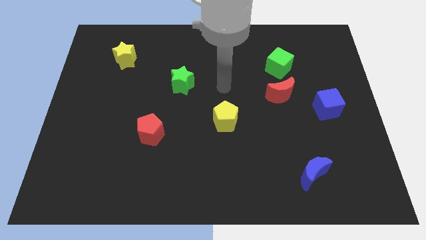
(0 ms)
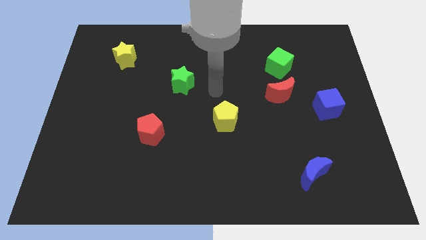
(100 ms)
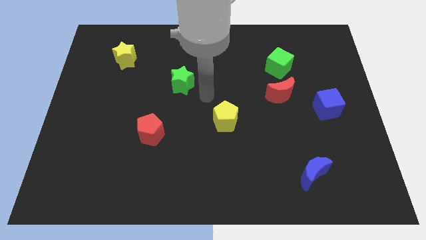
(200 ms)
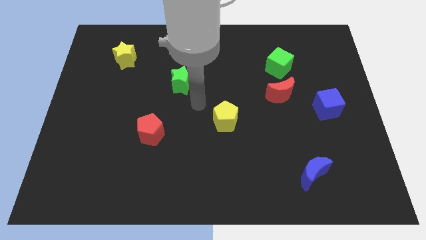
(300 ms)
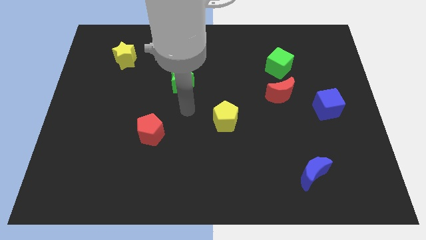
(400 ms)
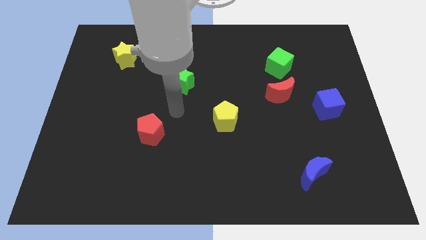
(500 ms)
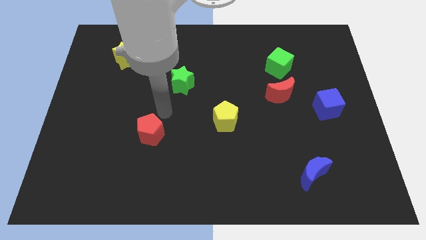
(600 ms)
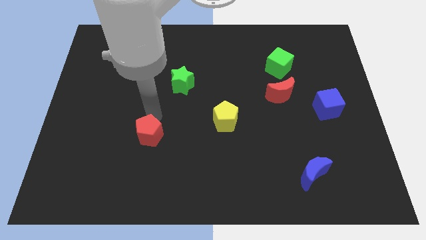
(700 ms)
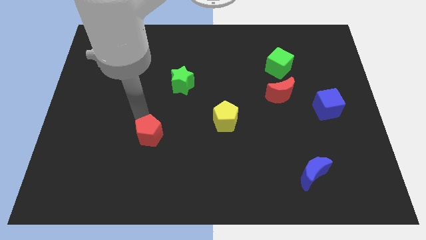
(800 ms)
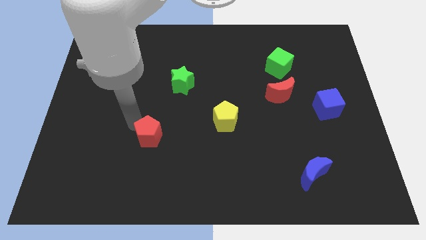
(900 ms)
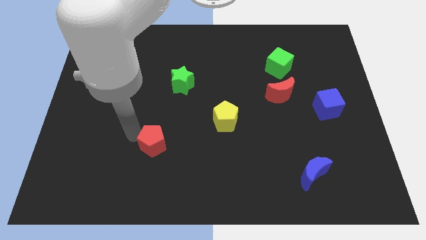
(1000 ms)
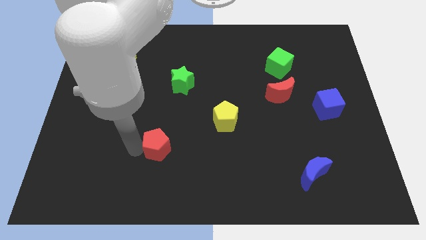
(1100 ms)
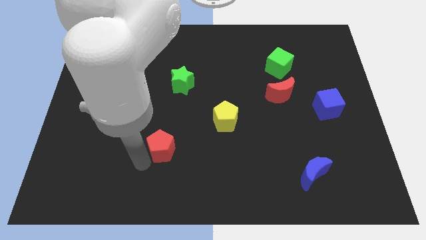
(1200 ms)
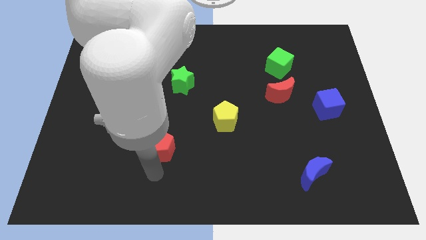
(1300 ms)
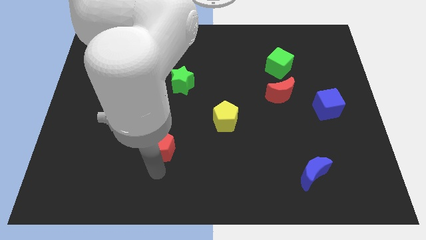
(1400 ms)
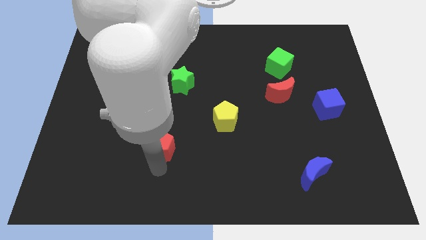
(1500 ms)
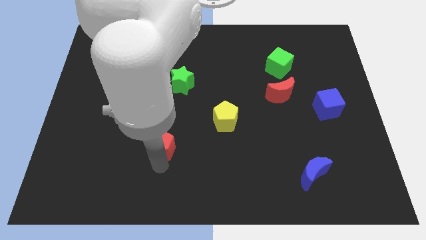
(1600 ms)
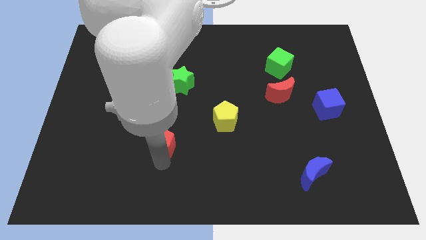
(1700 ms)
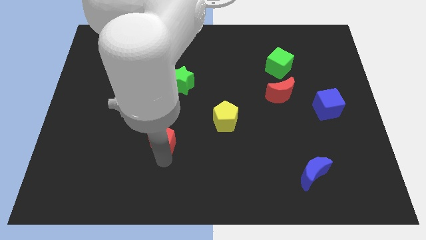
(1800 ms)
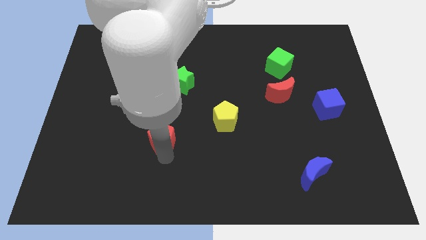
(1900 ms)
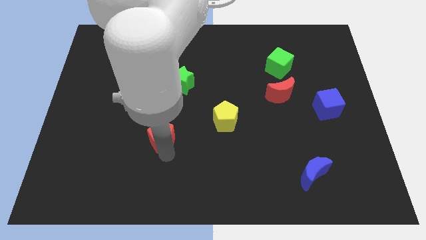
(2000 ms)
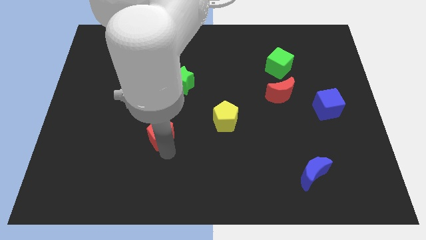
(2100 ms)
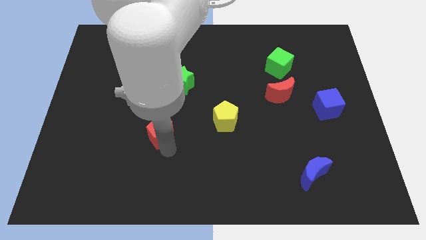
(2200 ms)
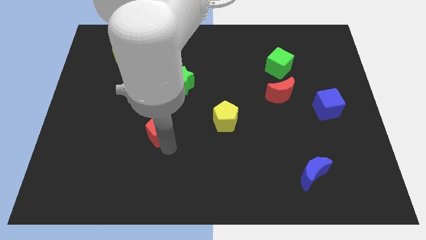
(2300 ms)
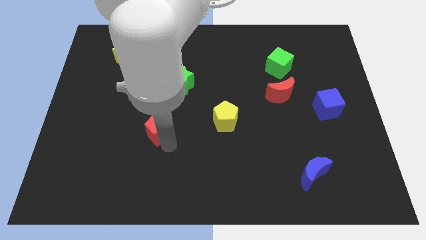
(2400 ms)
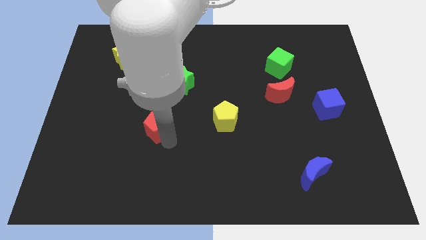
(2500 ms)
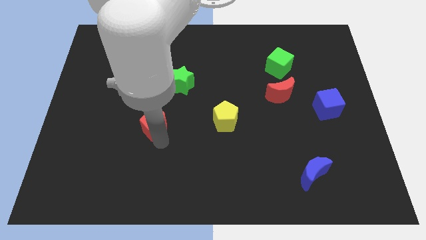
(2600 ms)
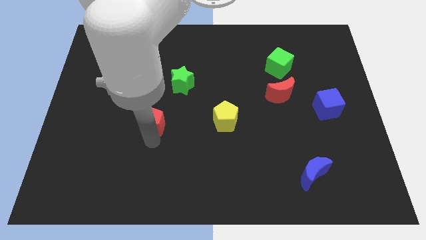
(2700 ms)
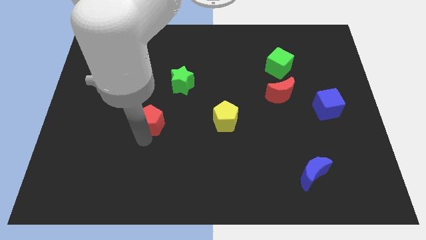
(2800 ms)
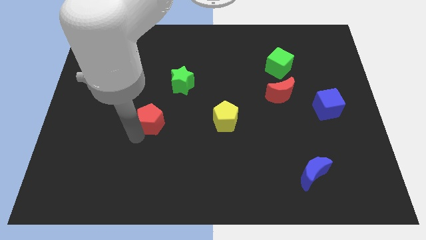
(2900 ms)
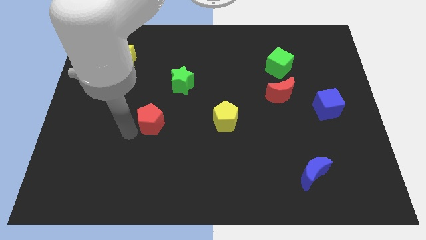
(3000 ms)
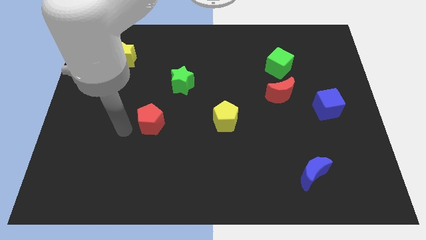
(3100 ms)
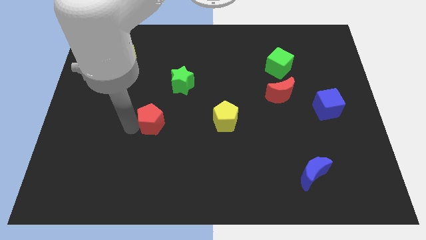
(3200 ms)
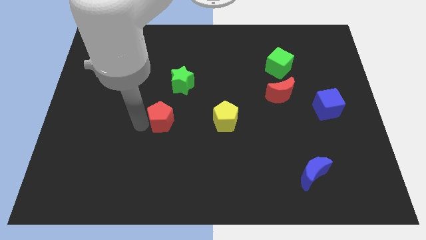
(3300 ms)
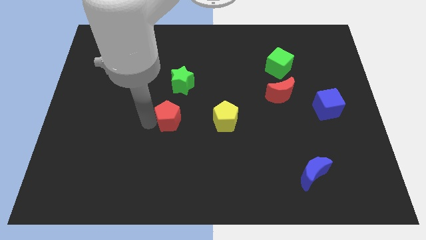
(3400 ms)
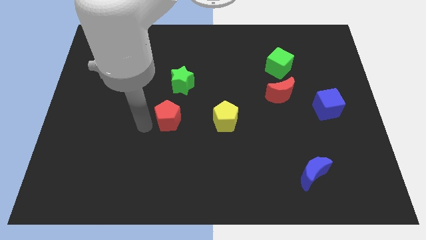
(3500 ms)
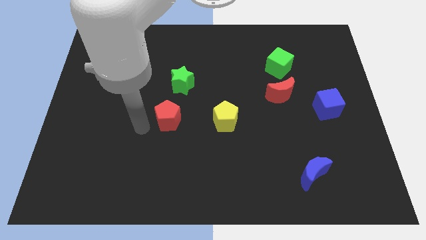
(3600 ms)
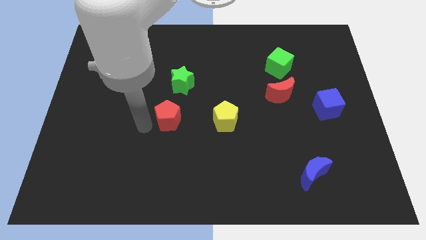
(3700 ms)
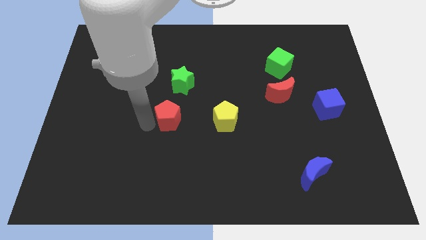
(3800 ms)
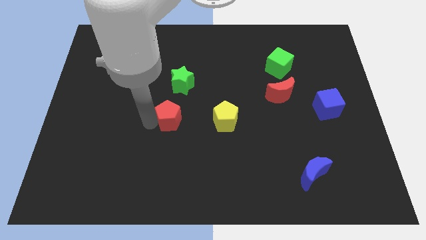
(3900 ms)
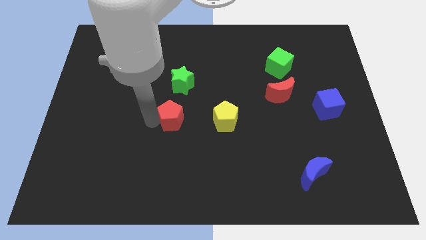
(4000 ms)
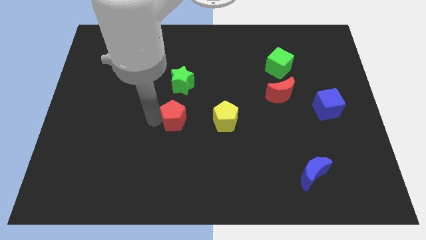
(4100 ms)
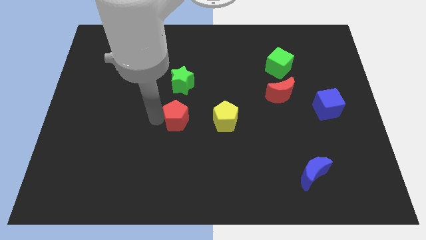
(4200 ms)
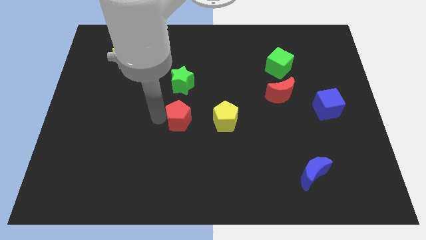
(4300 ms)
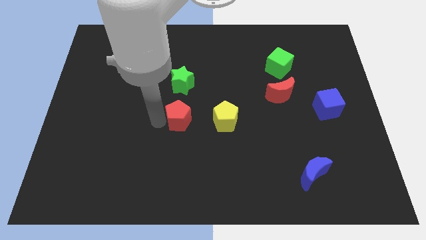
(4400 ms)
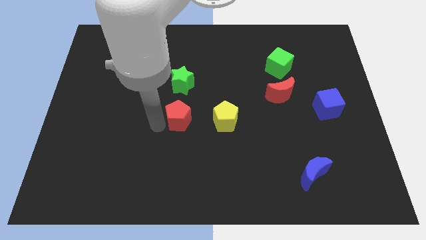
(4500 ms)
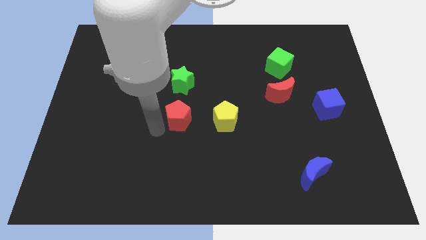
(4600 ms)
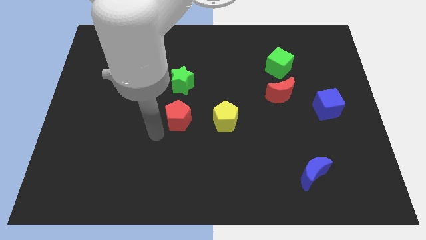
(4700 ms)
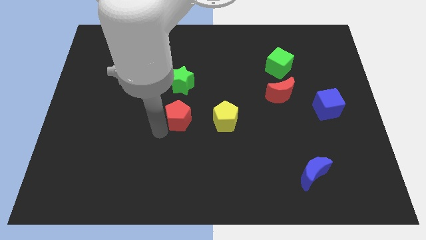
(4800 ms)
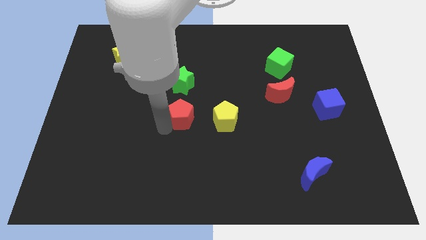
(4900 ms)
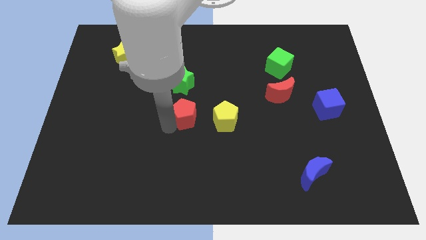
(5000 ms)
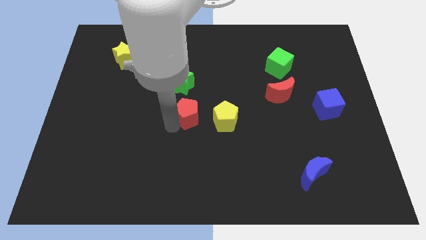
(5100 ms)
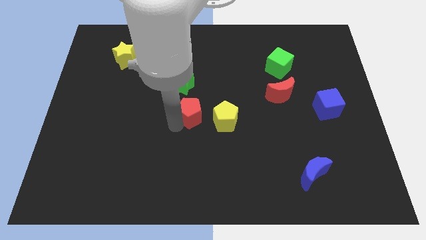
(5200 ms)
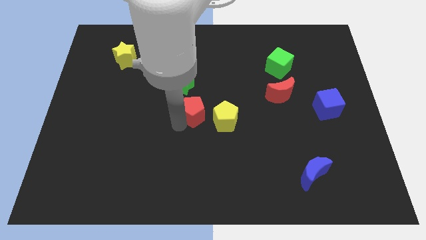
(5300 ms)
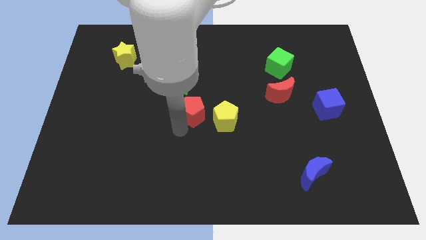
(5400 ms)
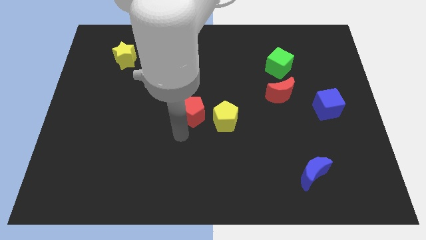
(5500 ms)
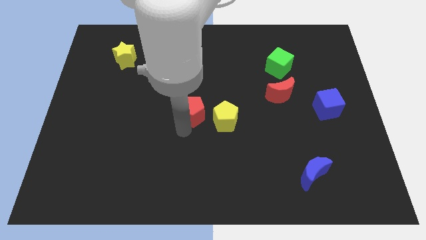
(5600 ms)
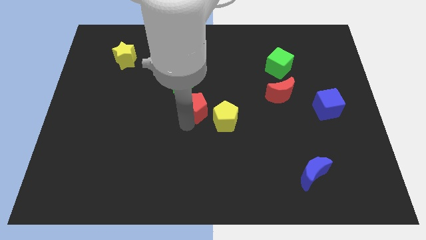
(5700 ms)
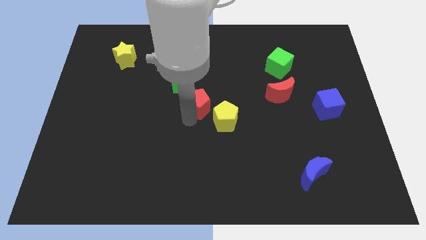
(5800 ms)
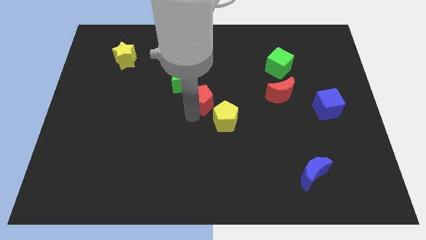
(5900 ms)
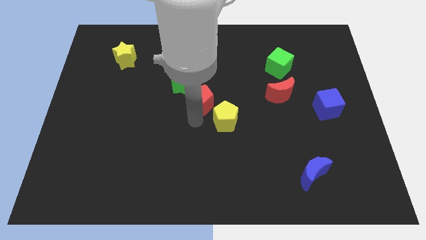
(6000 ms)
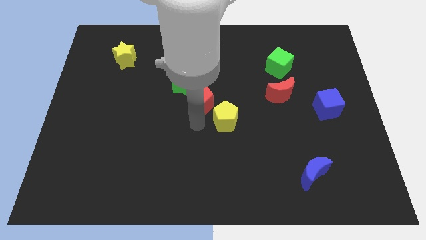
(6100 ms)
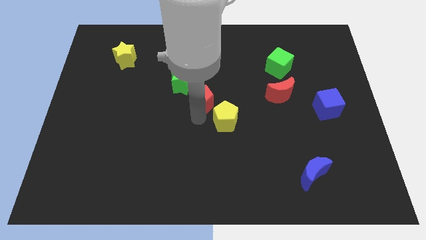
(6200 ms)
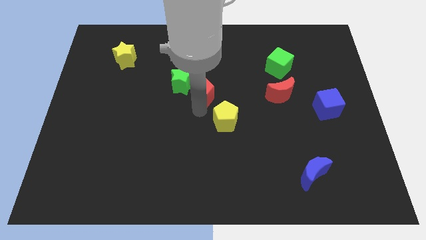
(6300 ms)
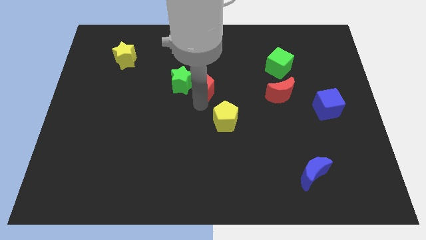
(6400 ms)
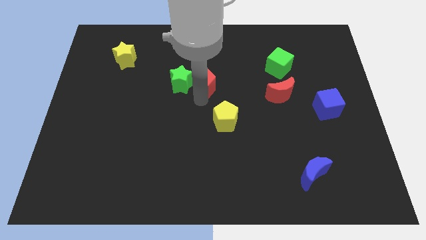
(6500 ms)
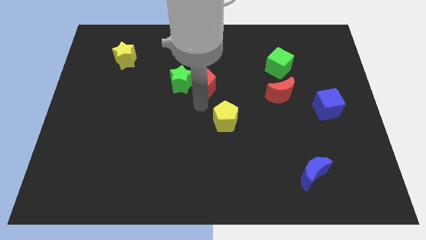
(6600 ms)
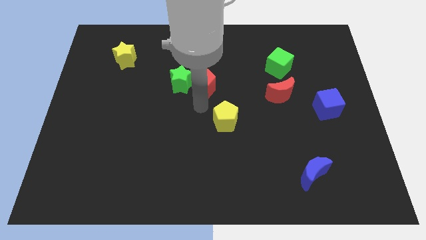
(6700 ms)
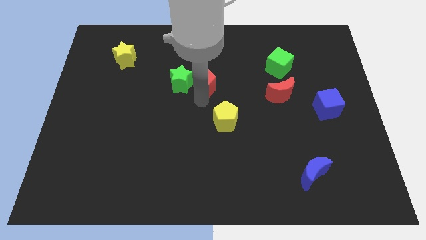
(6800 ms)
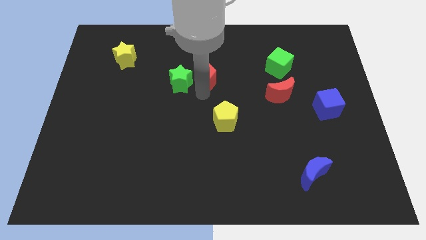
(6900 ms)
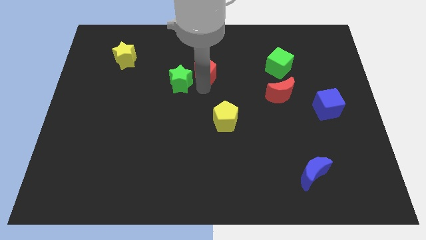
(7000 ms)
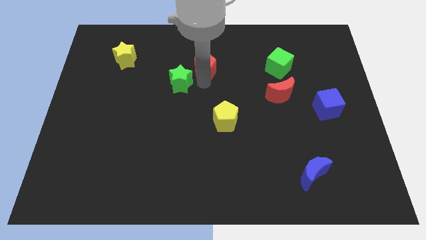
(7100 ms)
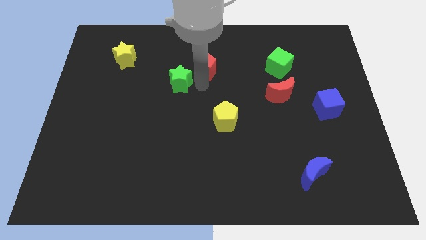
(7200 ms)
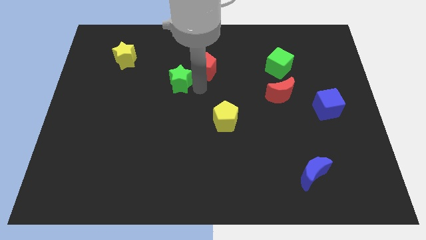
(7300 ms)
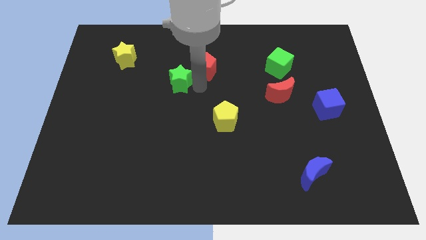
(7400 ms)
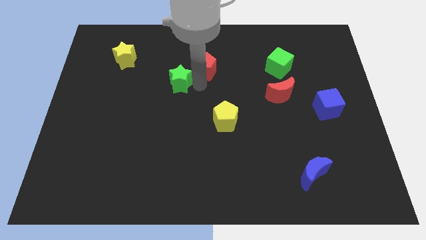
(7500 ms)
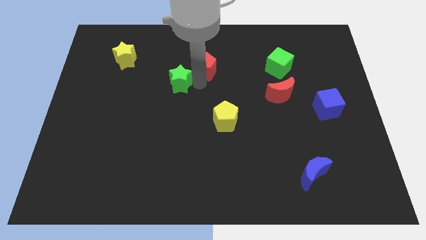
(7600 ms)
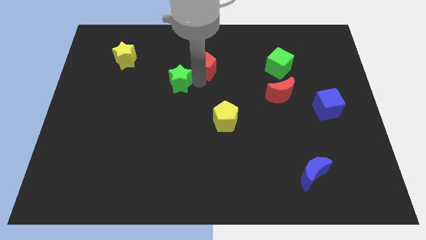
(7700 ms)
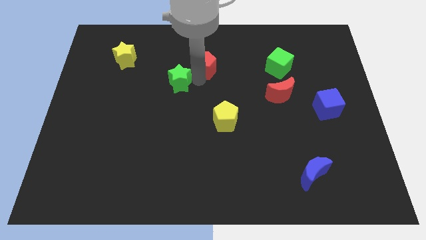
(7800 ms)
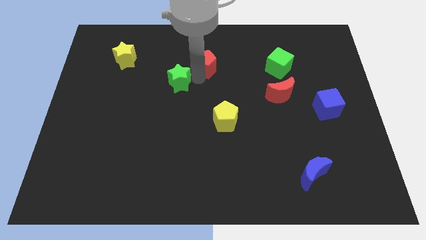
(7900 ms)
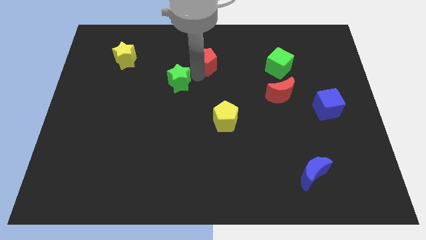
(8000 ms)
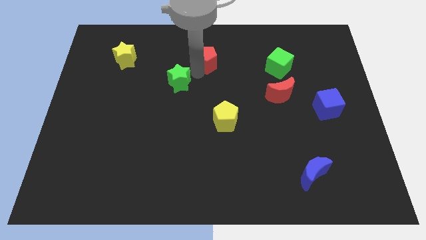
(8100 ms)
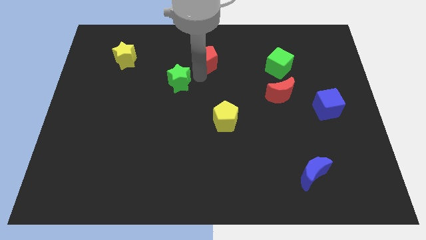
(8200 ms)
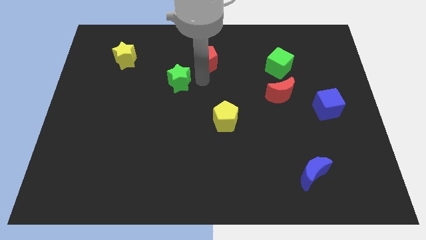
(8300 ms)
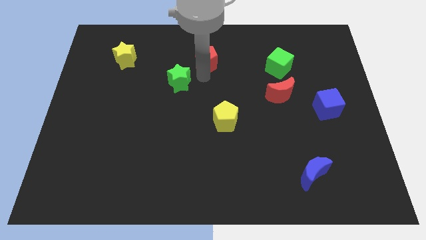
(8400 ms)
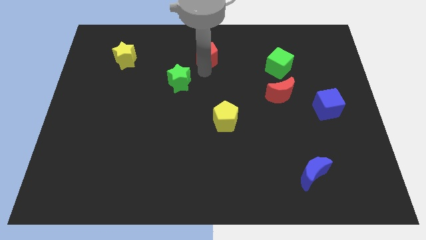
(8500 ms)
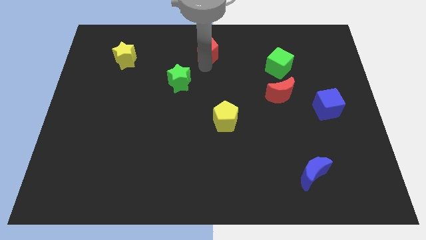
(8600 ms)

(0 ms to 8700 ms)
move the red pentagon to the towards your base
